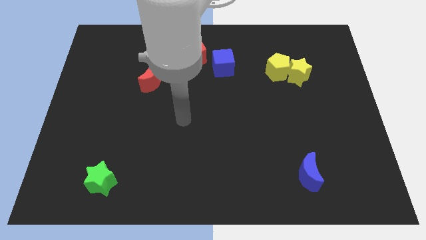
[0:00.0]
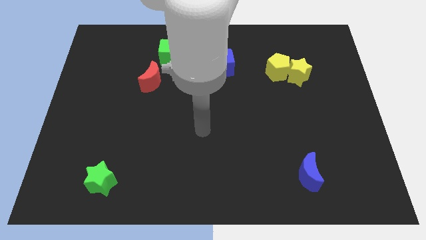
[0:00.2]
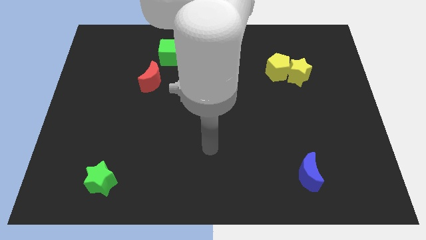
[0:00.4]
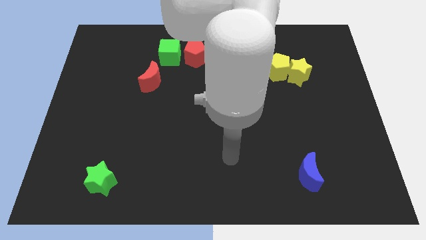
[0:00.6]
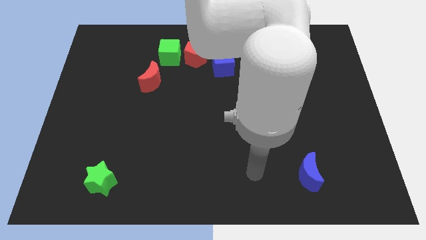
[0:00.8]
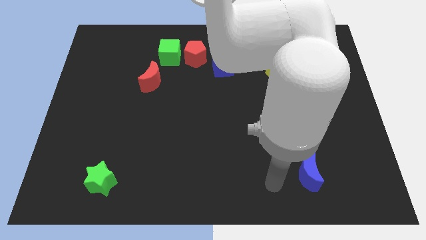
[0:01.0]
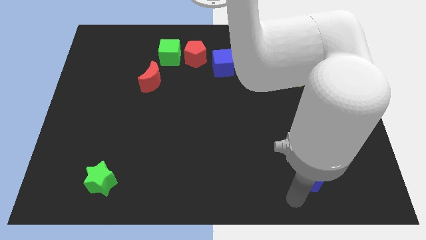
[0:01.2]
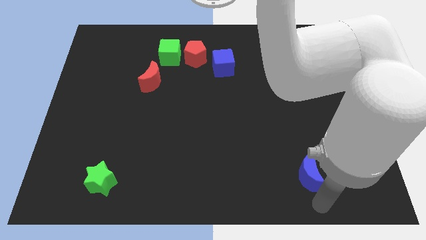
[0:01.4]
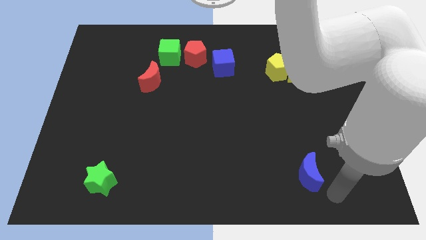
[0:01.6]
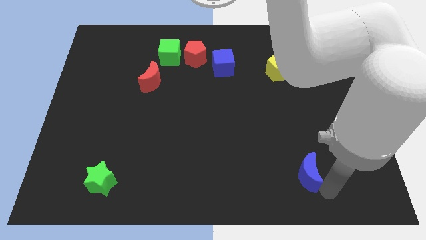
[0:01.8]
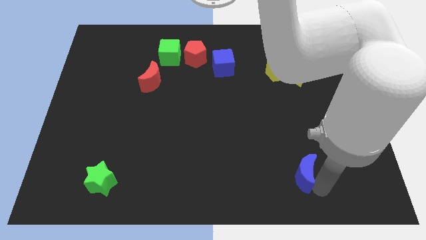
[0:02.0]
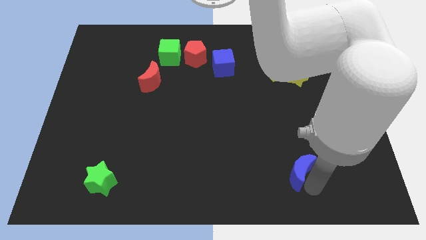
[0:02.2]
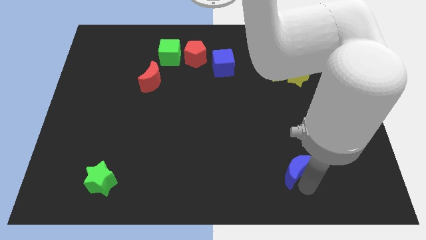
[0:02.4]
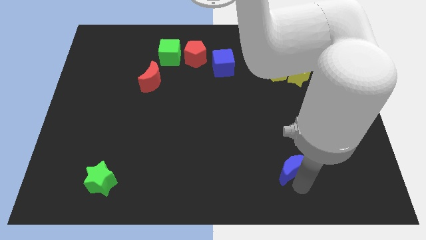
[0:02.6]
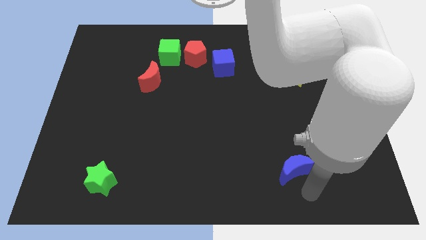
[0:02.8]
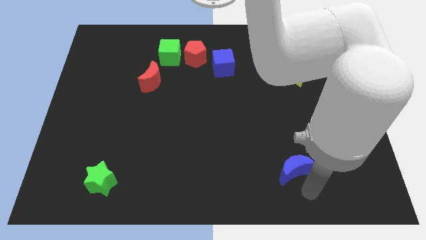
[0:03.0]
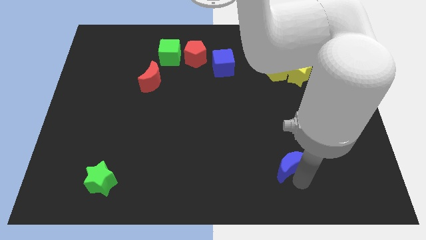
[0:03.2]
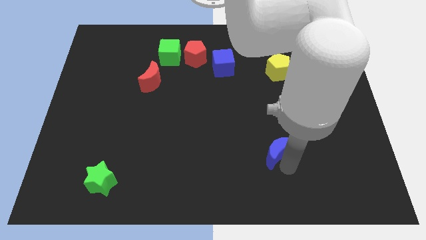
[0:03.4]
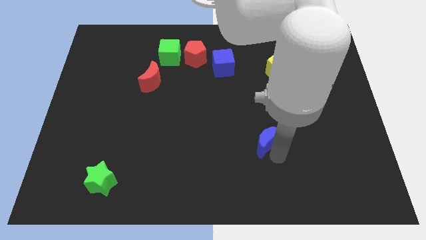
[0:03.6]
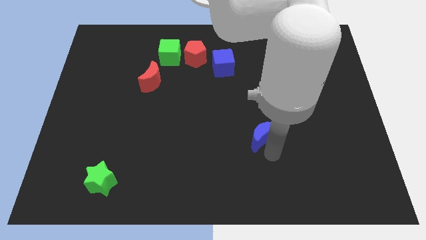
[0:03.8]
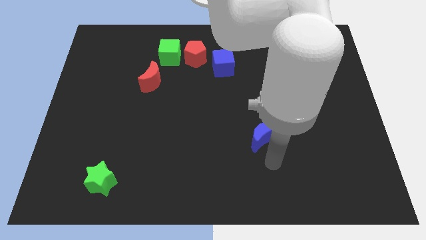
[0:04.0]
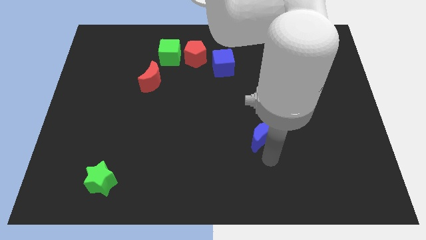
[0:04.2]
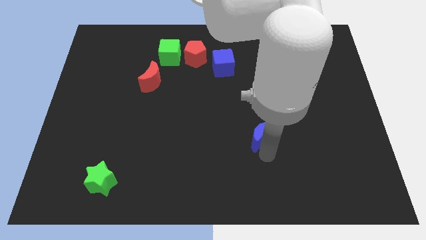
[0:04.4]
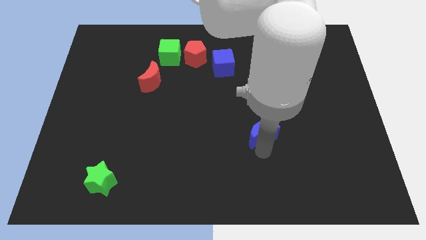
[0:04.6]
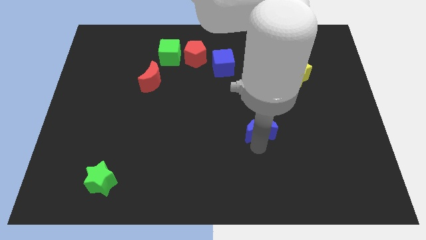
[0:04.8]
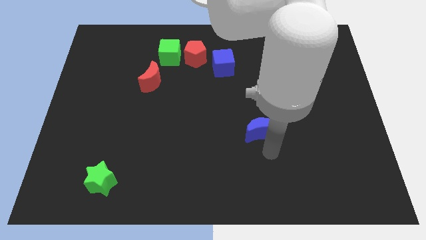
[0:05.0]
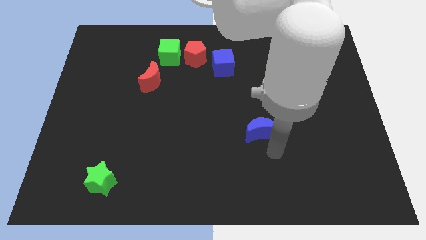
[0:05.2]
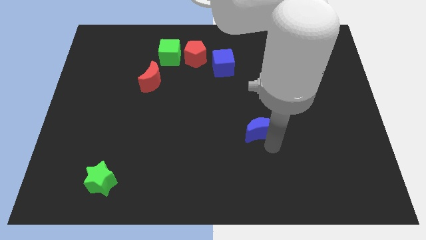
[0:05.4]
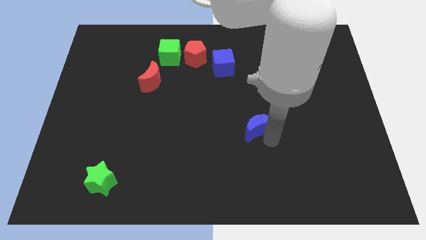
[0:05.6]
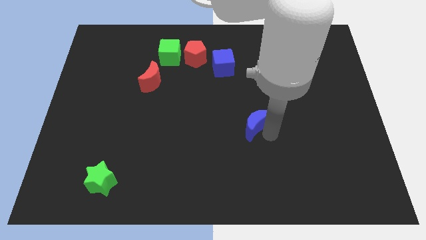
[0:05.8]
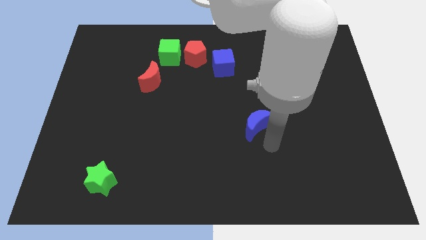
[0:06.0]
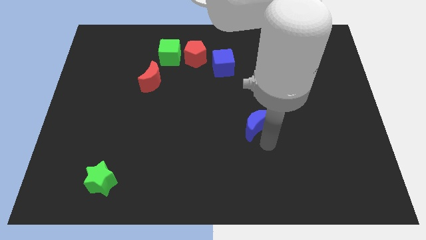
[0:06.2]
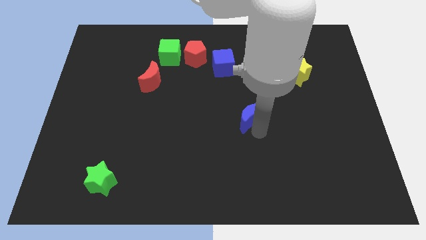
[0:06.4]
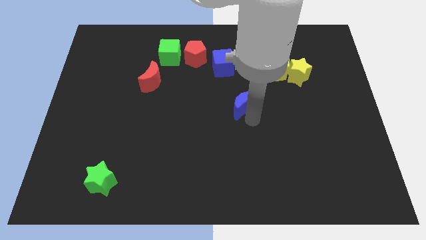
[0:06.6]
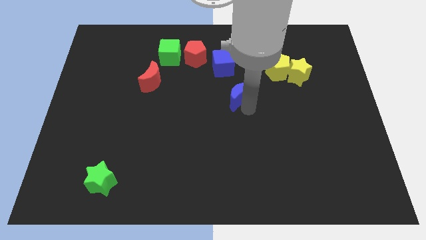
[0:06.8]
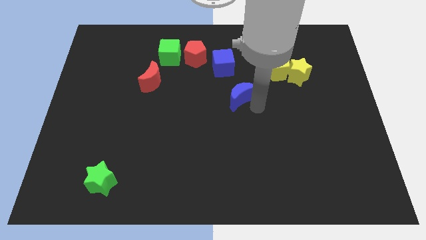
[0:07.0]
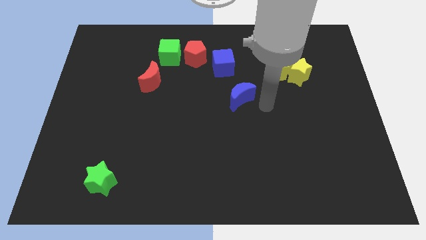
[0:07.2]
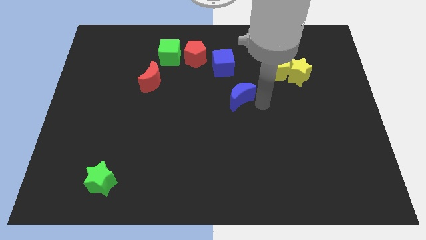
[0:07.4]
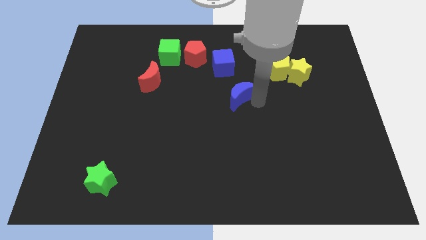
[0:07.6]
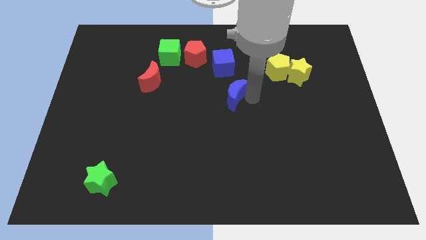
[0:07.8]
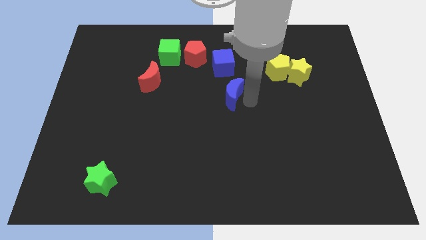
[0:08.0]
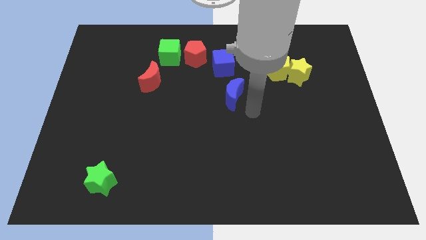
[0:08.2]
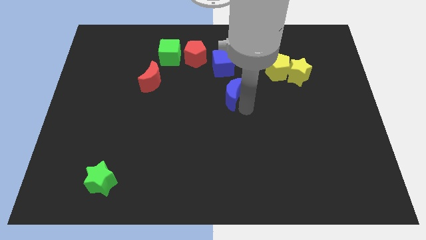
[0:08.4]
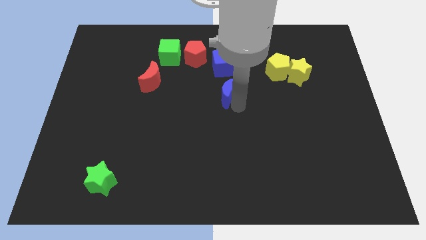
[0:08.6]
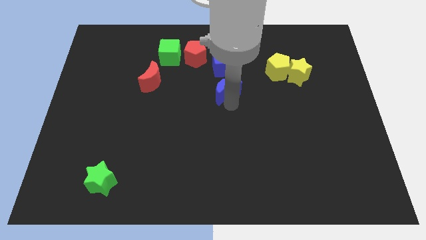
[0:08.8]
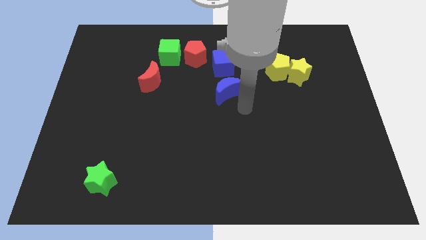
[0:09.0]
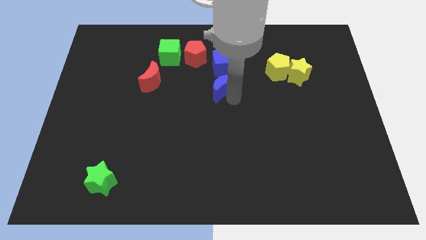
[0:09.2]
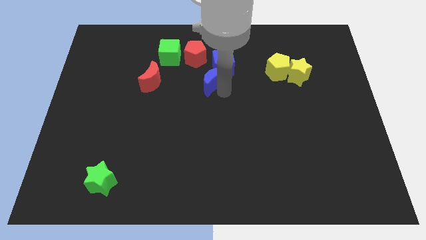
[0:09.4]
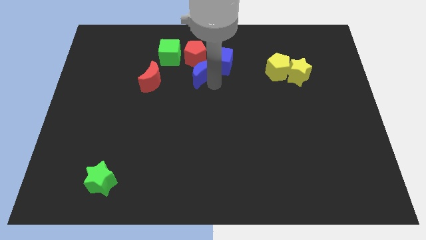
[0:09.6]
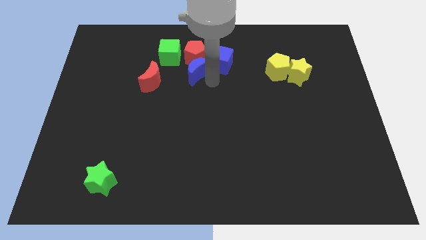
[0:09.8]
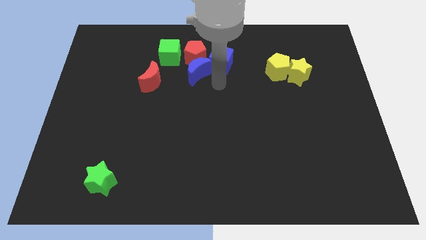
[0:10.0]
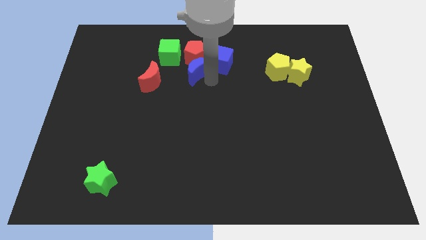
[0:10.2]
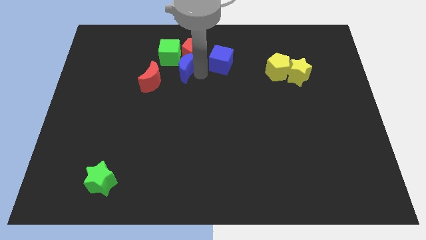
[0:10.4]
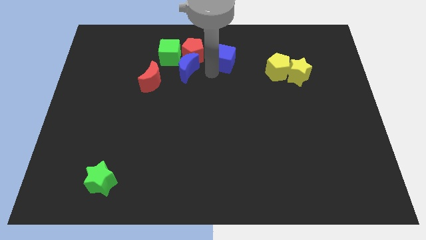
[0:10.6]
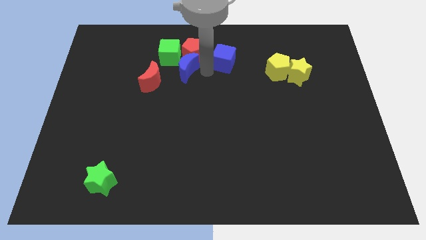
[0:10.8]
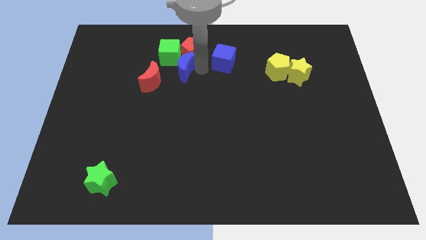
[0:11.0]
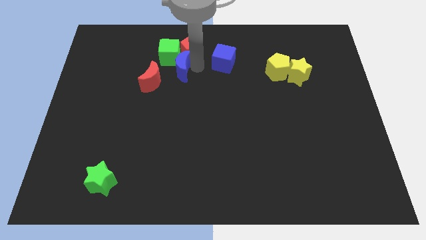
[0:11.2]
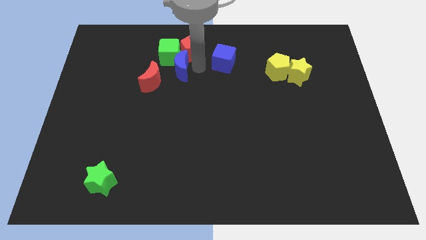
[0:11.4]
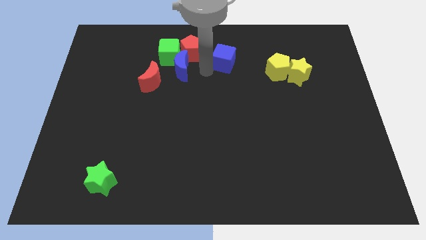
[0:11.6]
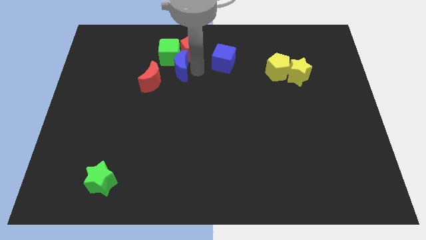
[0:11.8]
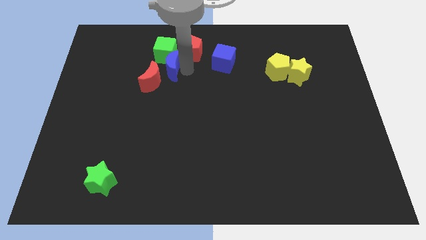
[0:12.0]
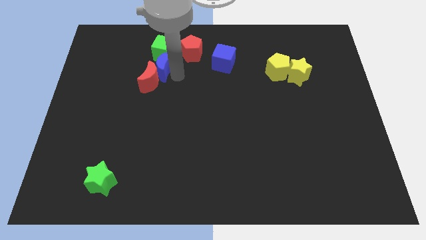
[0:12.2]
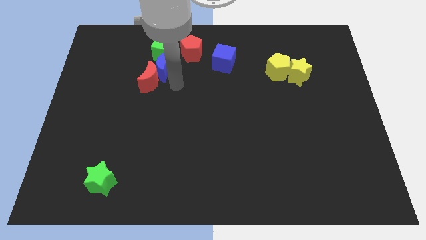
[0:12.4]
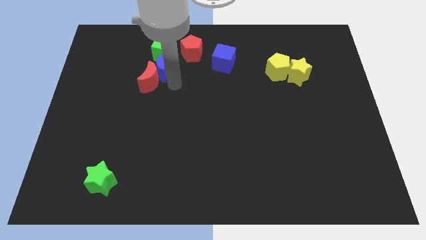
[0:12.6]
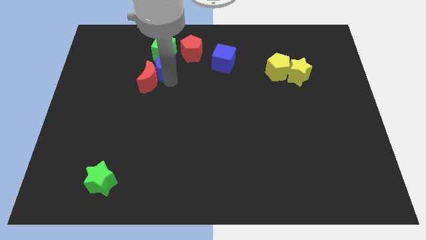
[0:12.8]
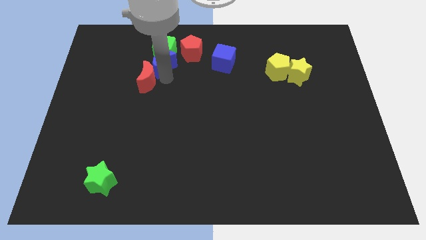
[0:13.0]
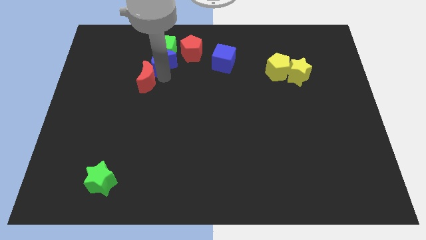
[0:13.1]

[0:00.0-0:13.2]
slide the blue moon to the left side of the red pentagon

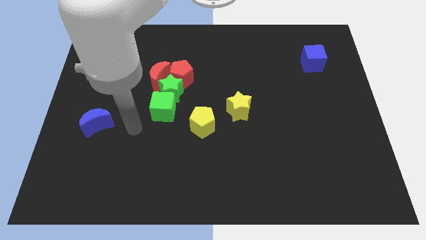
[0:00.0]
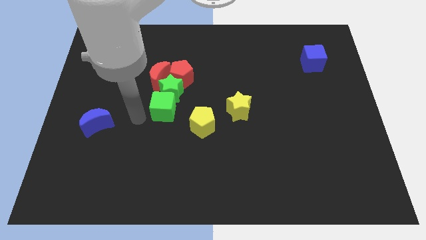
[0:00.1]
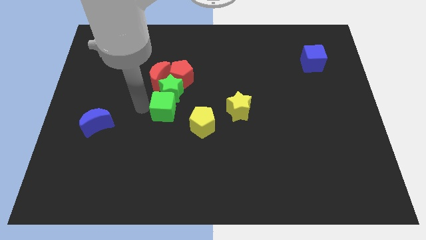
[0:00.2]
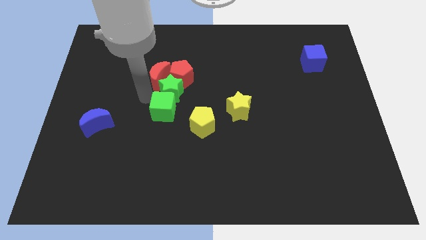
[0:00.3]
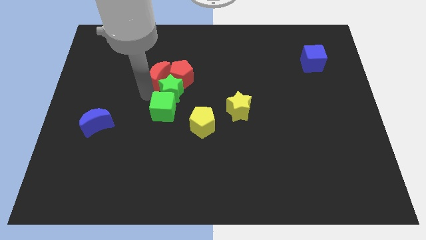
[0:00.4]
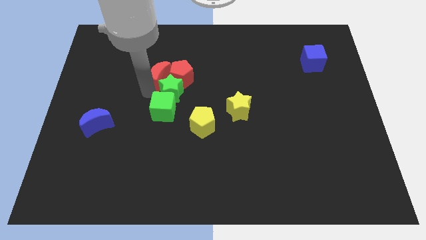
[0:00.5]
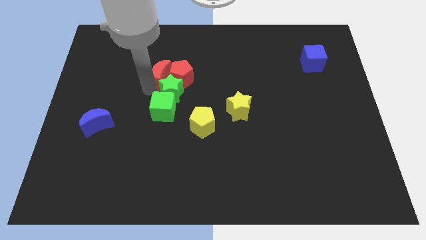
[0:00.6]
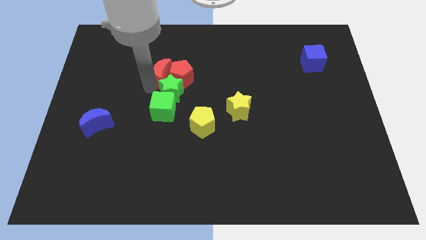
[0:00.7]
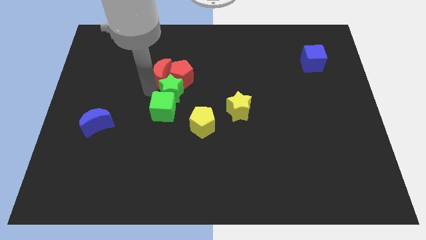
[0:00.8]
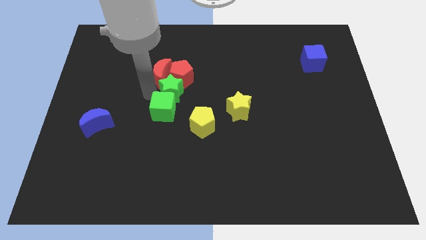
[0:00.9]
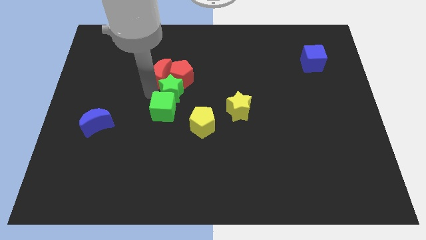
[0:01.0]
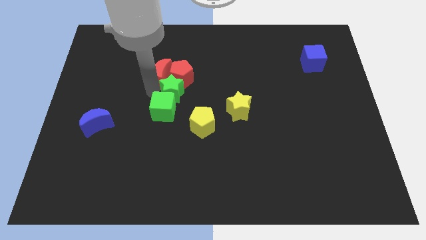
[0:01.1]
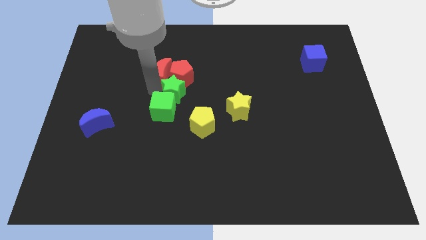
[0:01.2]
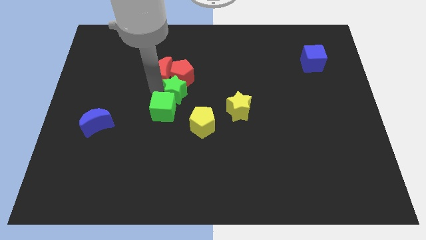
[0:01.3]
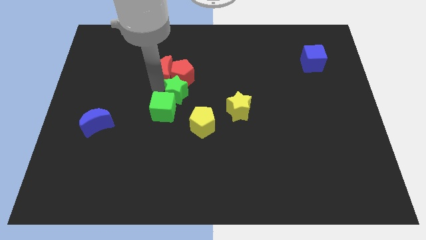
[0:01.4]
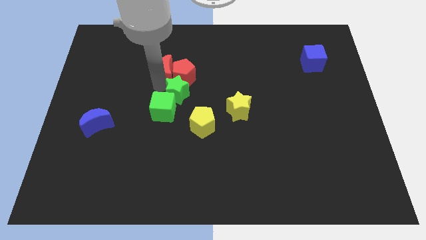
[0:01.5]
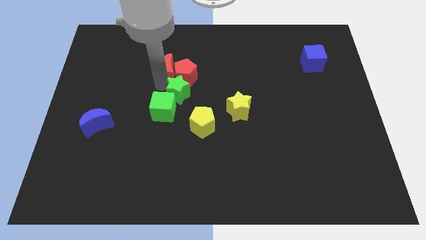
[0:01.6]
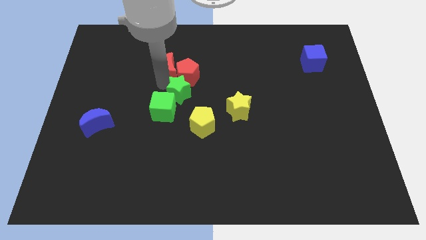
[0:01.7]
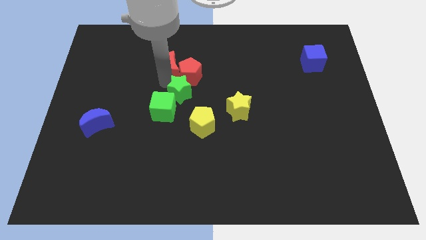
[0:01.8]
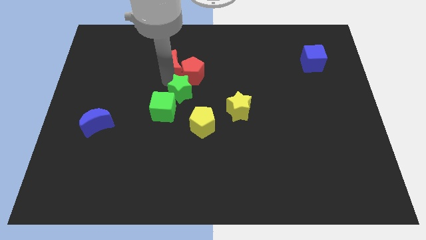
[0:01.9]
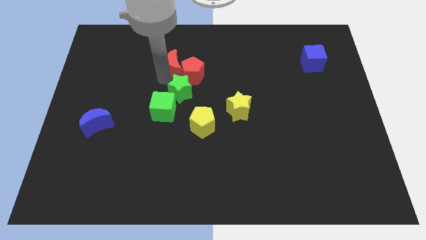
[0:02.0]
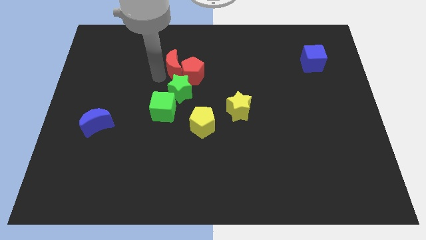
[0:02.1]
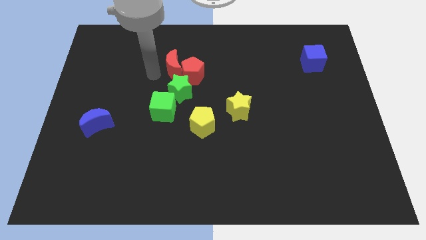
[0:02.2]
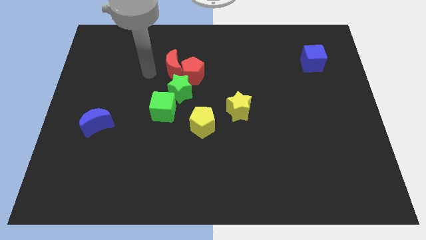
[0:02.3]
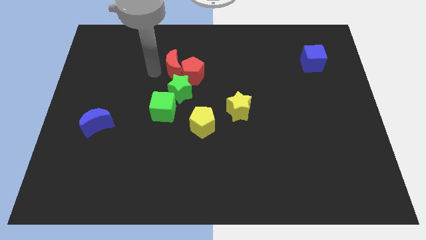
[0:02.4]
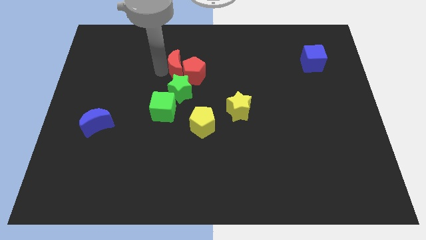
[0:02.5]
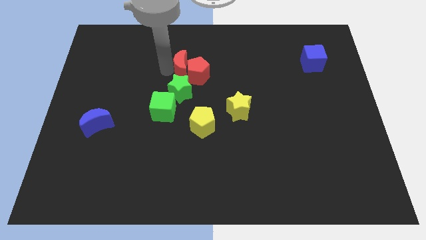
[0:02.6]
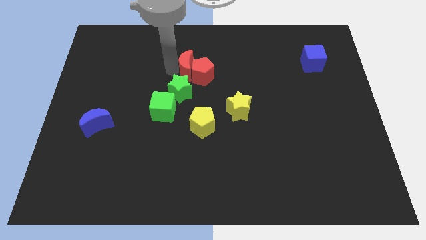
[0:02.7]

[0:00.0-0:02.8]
put the red moon diagonally up and to the right of the green star
